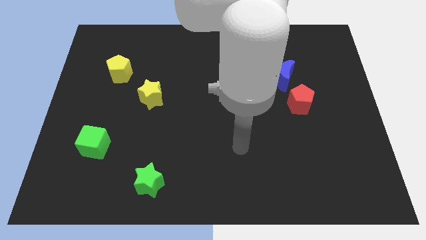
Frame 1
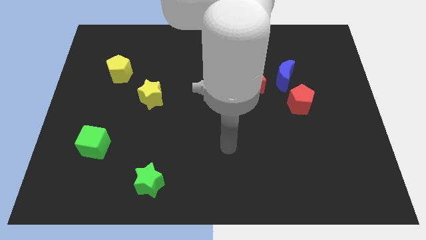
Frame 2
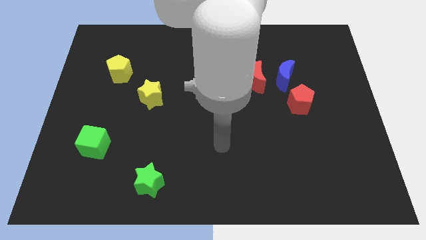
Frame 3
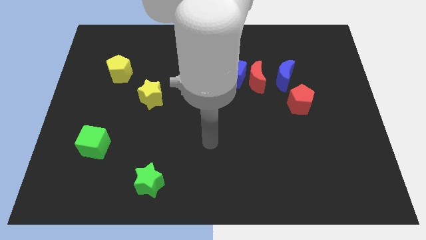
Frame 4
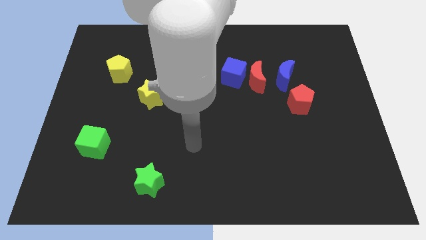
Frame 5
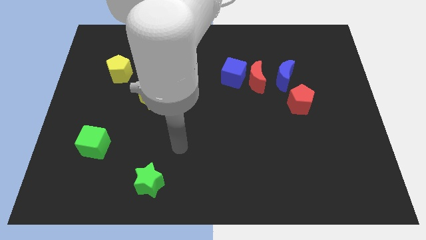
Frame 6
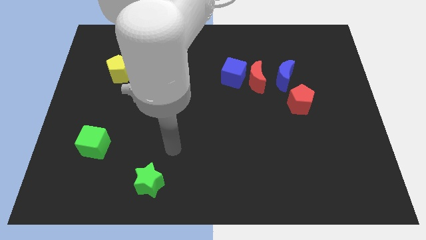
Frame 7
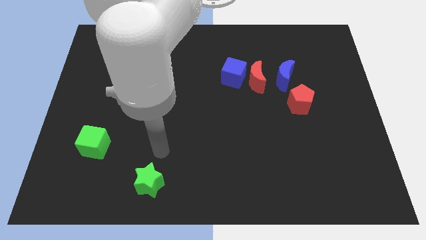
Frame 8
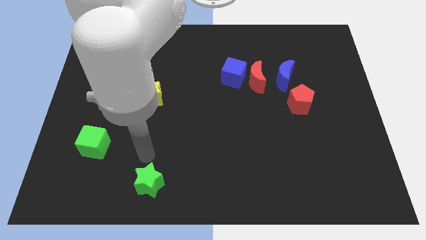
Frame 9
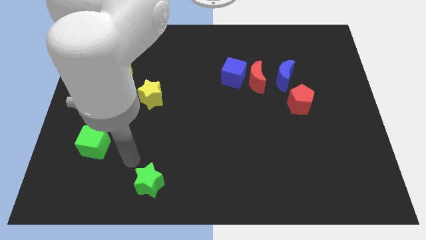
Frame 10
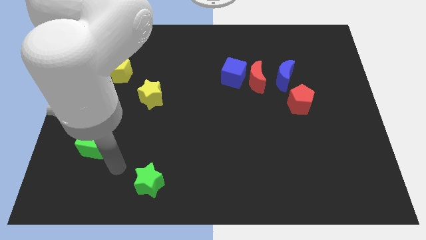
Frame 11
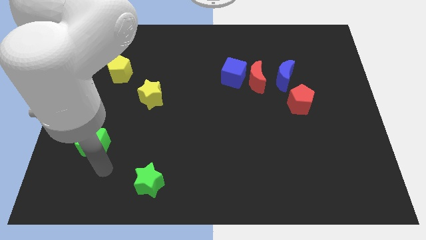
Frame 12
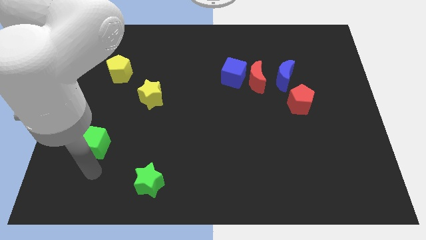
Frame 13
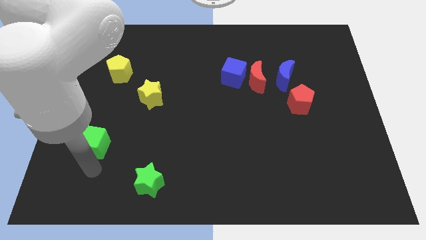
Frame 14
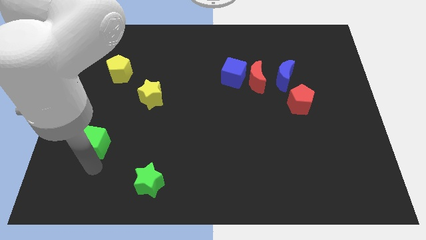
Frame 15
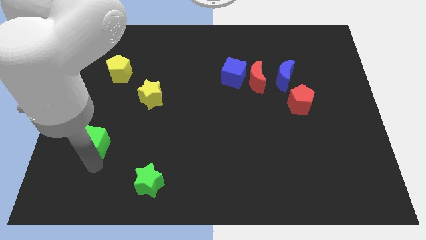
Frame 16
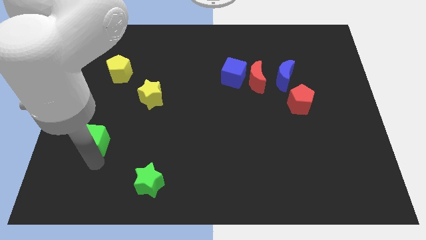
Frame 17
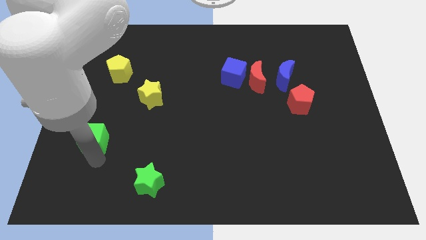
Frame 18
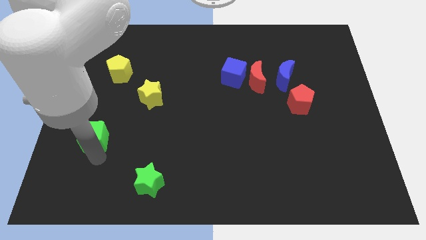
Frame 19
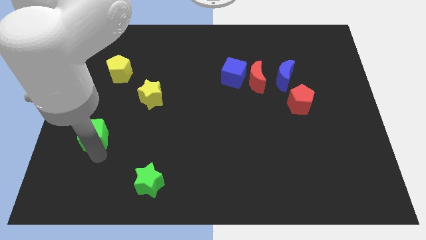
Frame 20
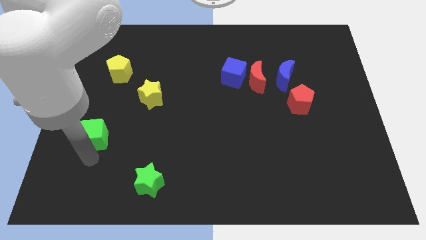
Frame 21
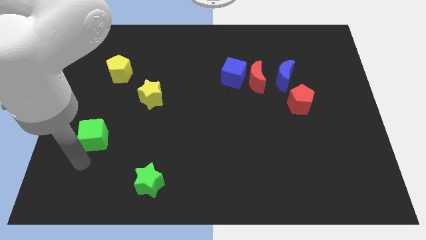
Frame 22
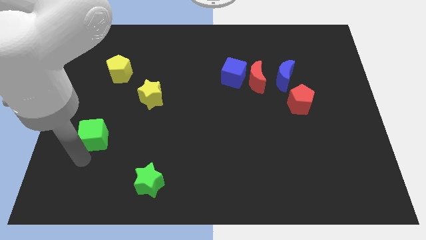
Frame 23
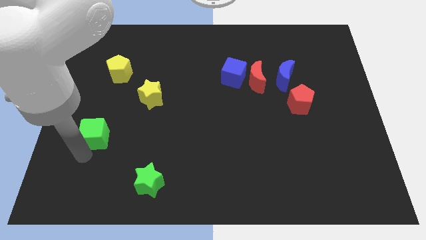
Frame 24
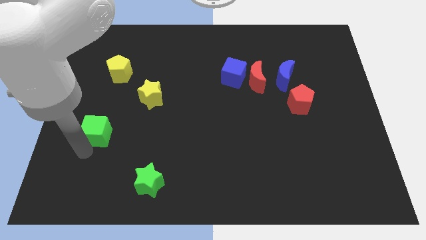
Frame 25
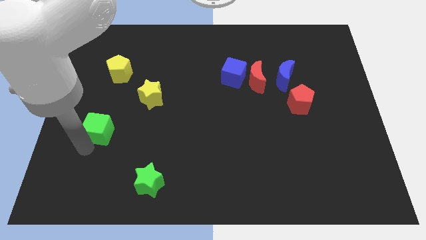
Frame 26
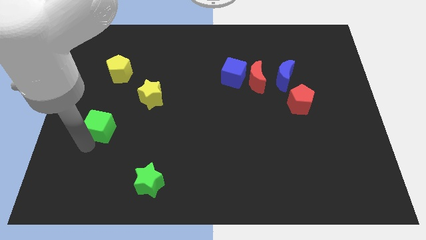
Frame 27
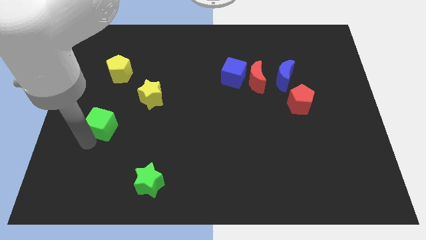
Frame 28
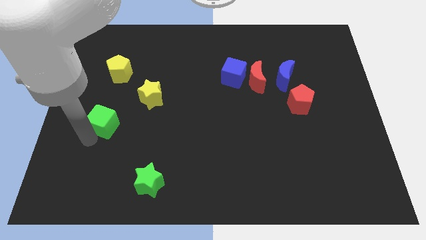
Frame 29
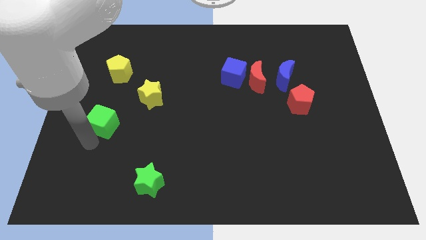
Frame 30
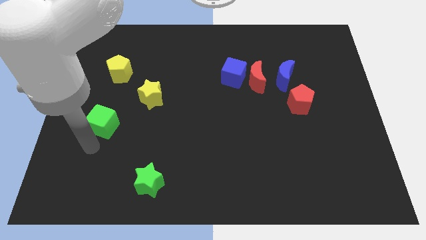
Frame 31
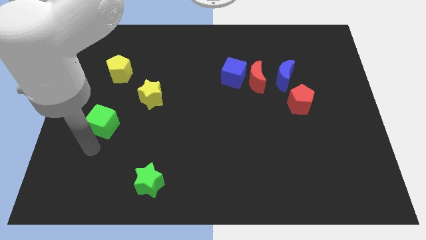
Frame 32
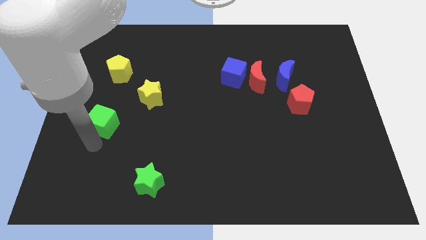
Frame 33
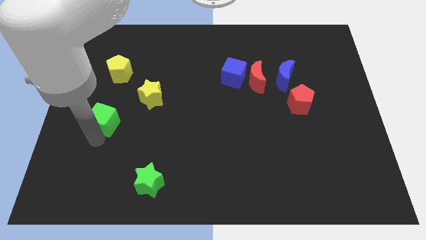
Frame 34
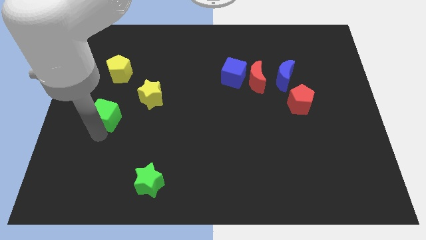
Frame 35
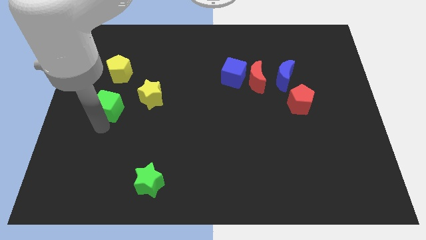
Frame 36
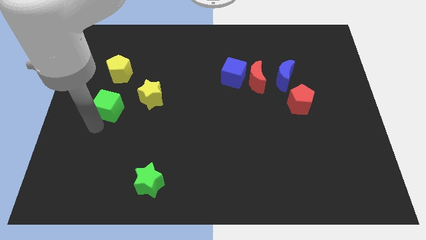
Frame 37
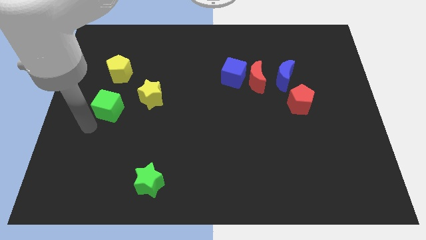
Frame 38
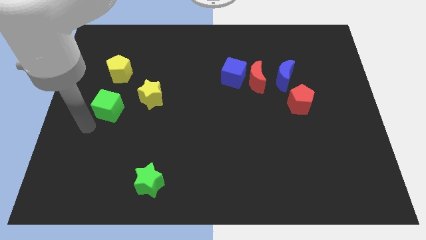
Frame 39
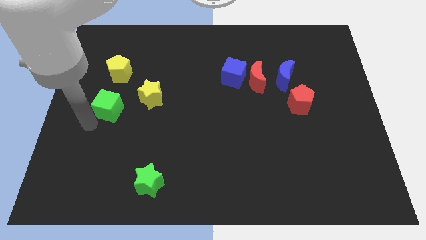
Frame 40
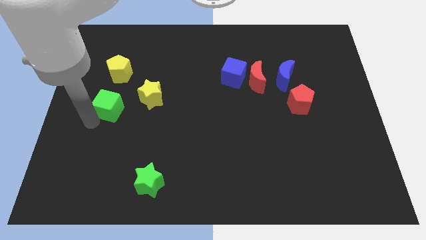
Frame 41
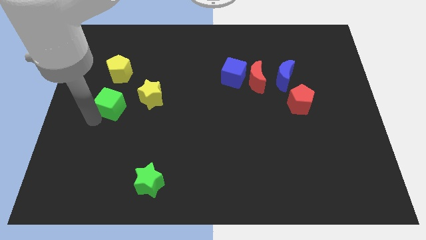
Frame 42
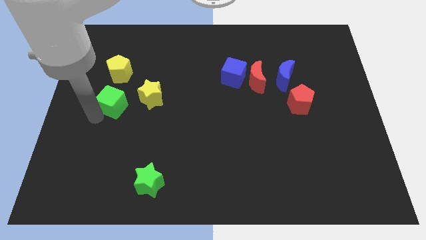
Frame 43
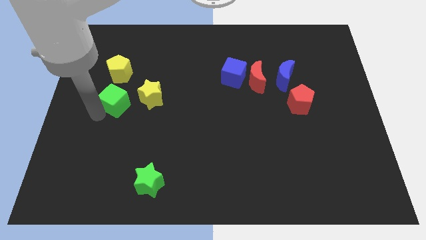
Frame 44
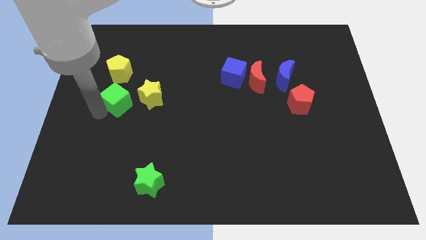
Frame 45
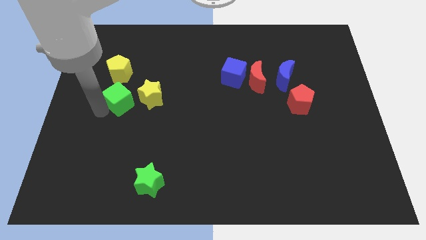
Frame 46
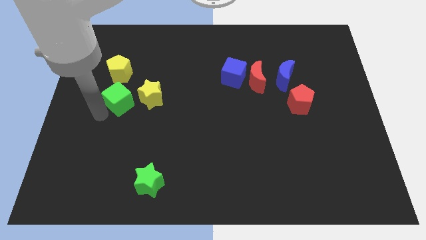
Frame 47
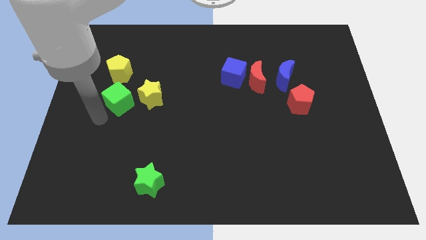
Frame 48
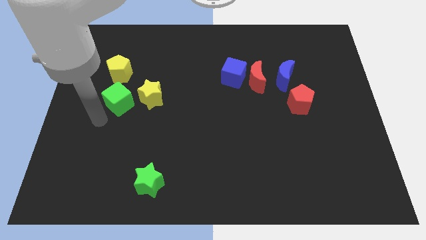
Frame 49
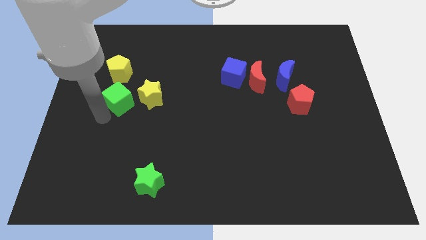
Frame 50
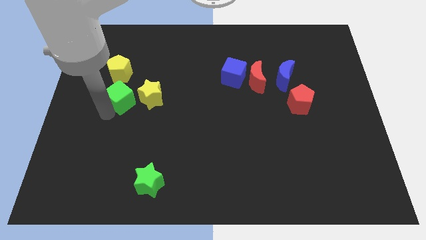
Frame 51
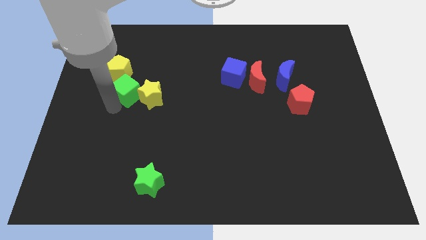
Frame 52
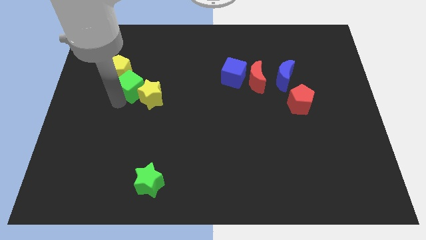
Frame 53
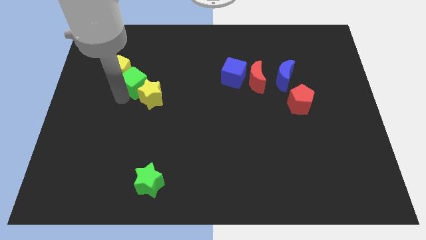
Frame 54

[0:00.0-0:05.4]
move the green cube above the yellow star

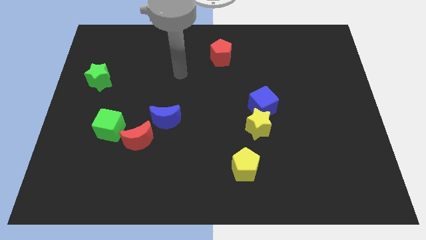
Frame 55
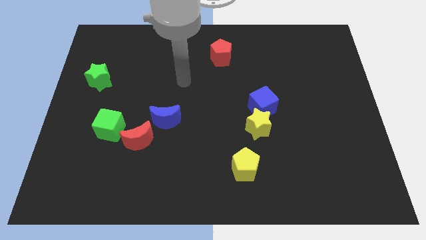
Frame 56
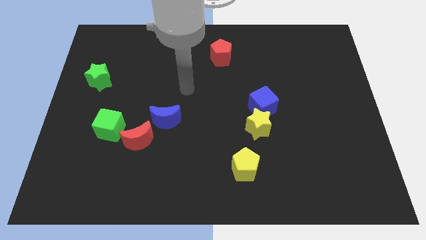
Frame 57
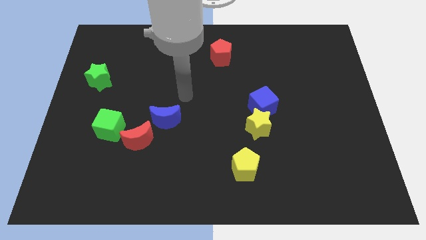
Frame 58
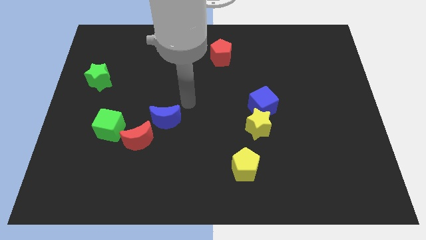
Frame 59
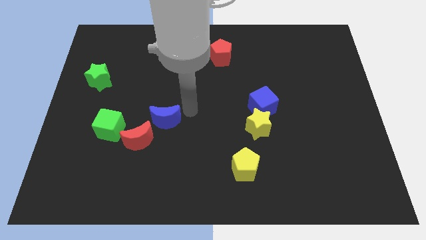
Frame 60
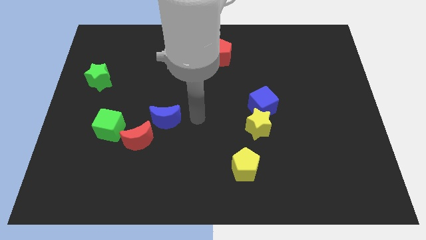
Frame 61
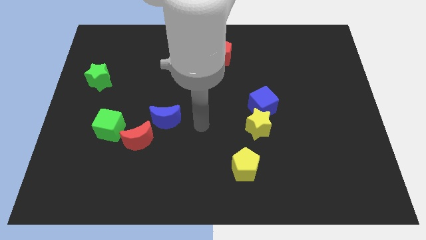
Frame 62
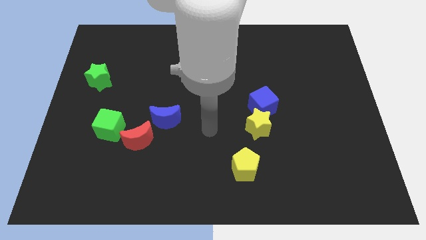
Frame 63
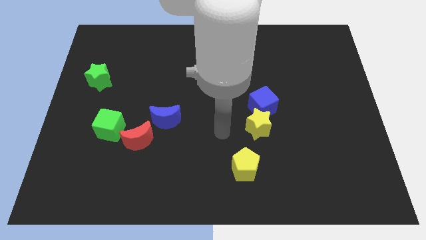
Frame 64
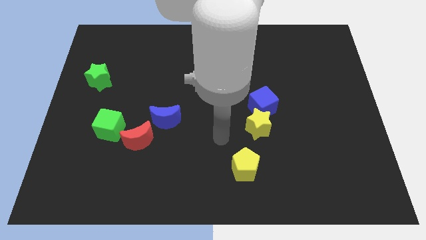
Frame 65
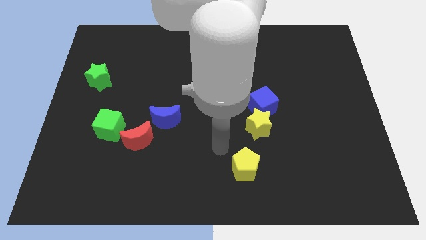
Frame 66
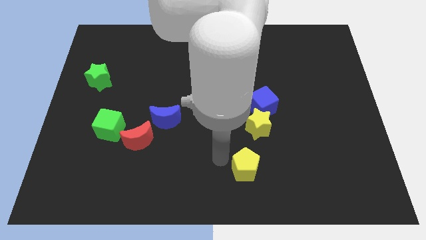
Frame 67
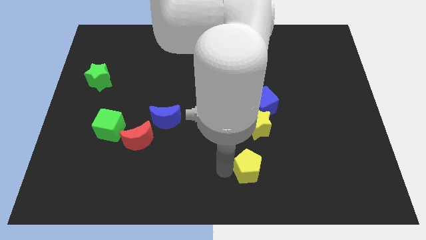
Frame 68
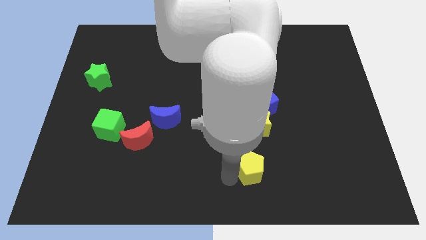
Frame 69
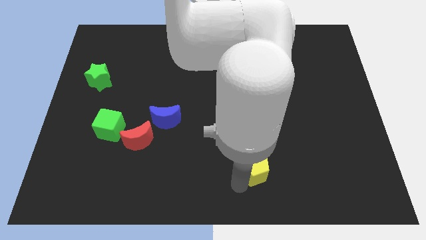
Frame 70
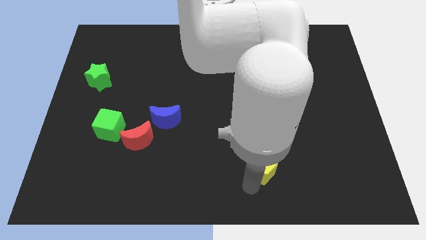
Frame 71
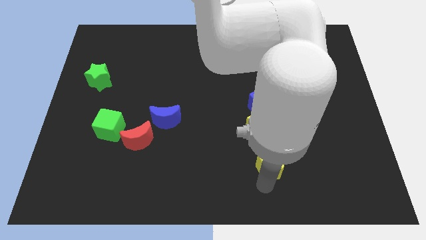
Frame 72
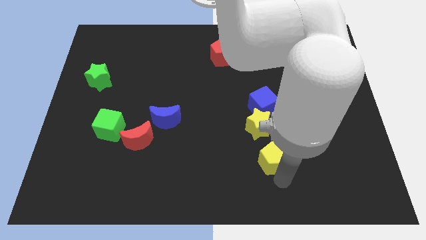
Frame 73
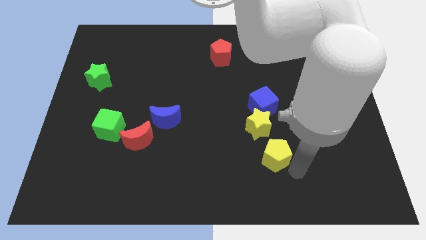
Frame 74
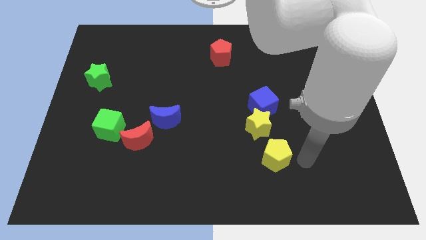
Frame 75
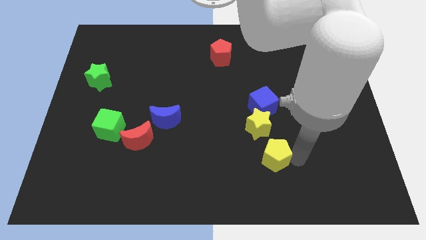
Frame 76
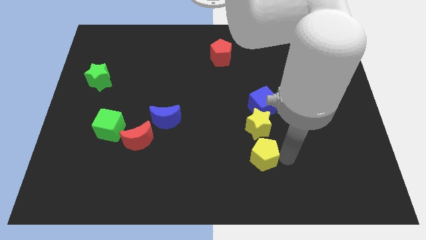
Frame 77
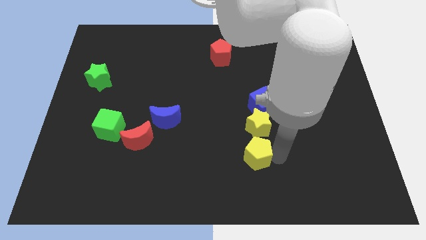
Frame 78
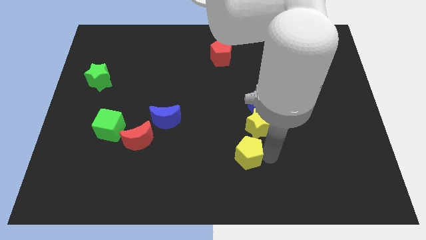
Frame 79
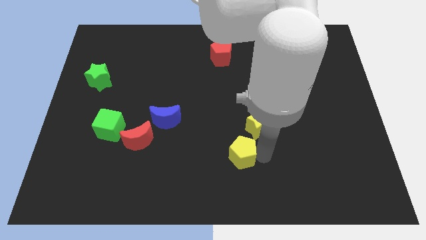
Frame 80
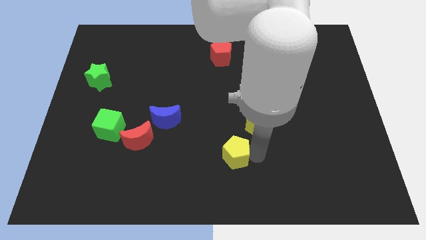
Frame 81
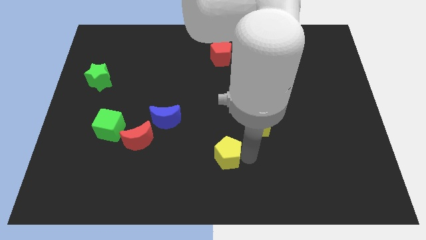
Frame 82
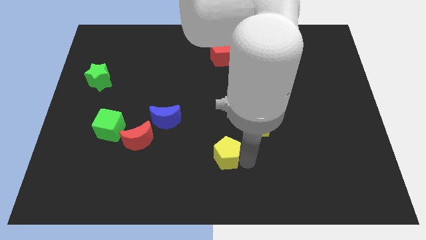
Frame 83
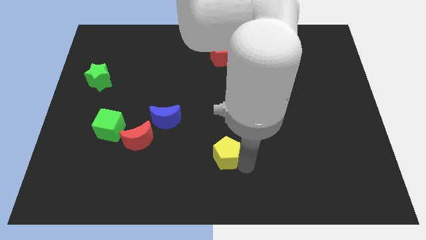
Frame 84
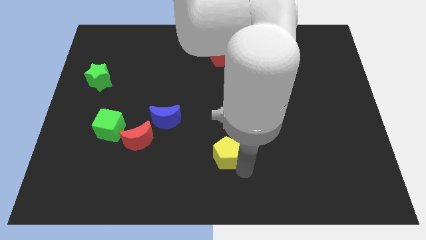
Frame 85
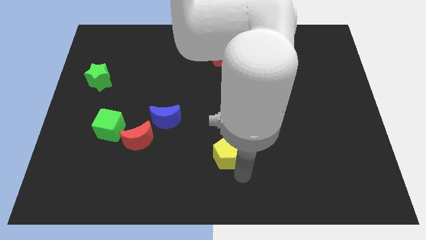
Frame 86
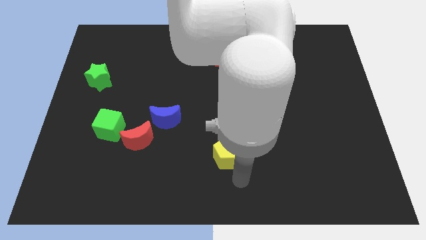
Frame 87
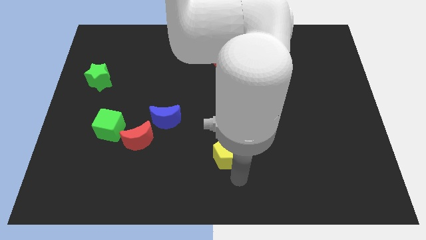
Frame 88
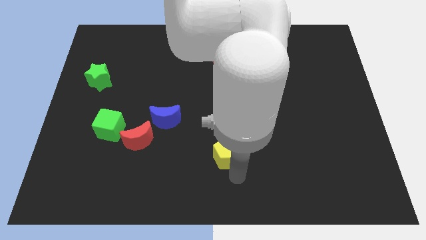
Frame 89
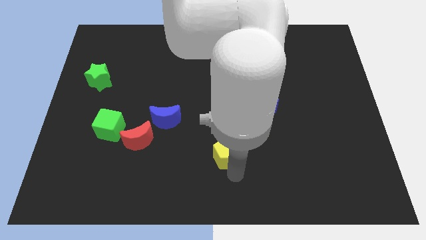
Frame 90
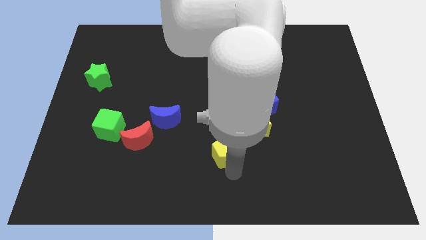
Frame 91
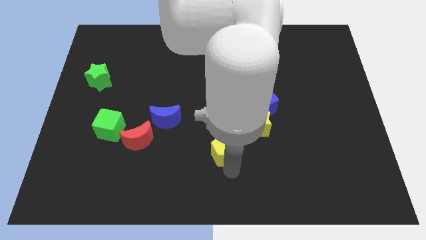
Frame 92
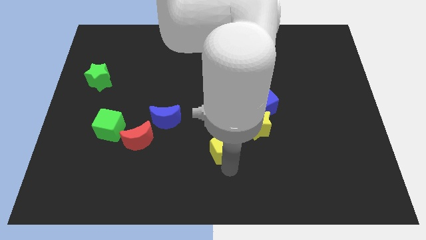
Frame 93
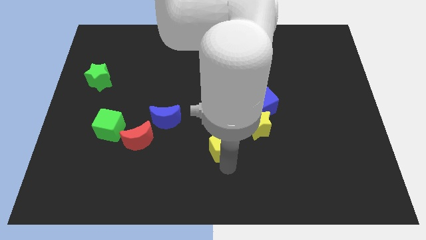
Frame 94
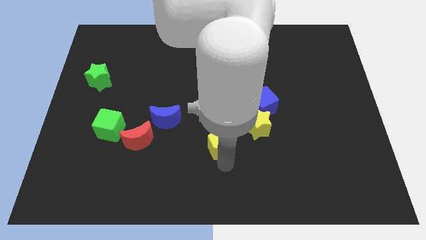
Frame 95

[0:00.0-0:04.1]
move the yellow pentagon just left of the yellow star
